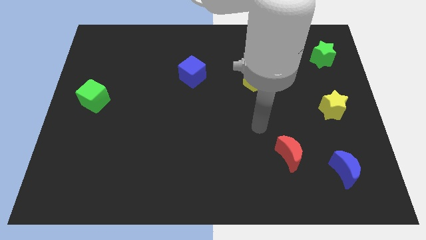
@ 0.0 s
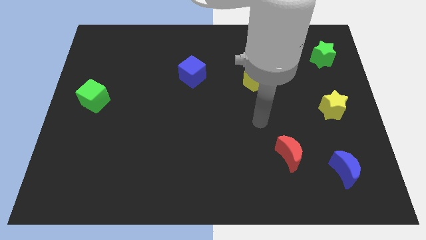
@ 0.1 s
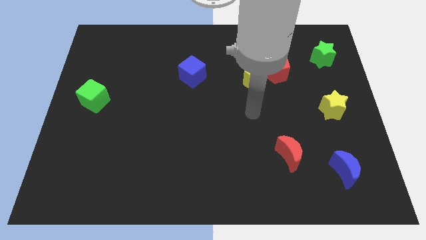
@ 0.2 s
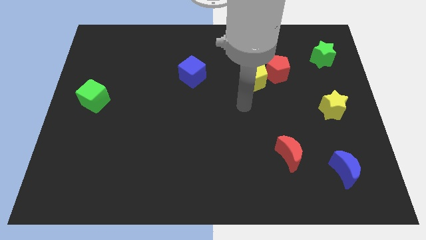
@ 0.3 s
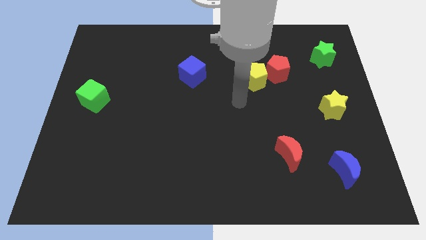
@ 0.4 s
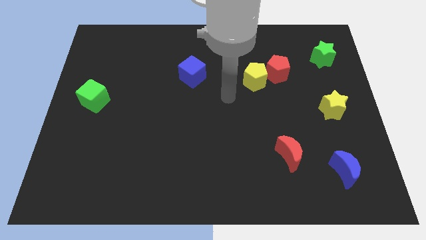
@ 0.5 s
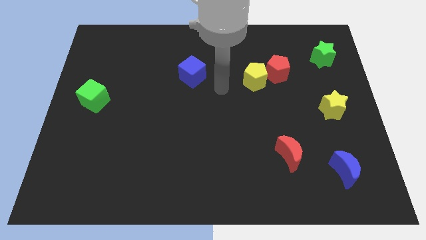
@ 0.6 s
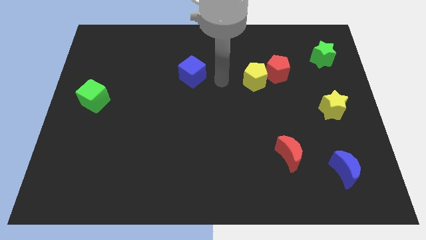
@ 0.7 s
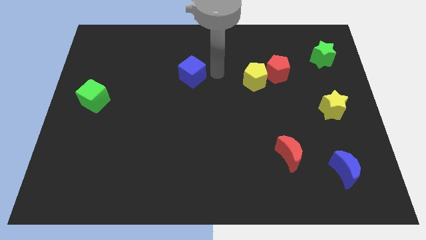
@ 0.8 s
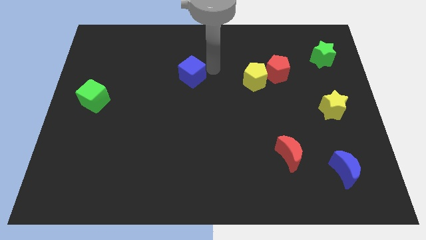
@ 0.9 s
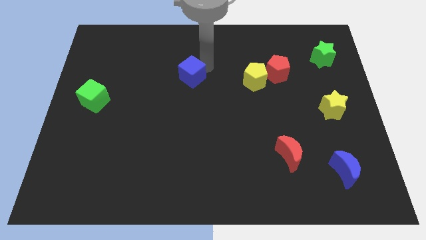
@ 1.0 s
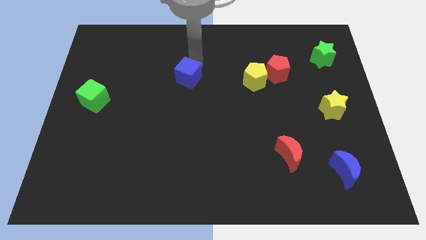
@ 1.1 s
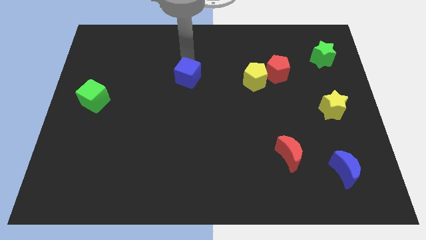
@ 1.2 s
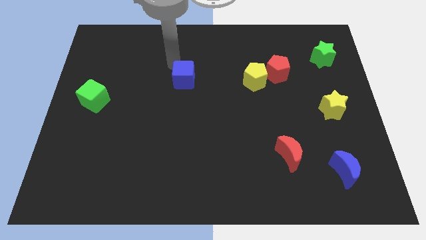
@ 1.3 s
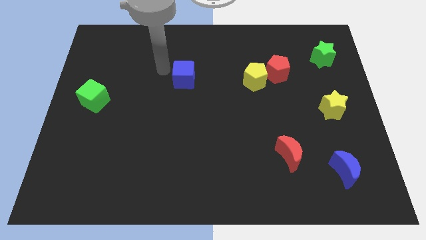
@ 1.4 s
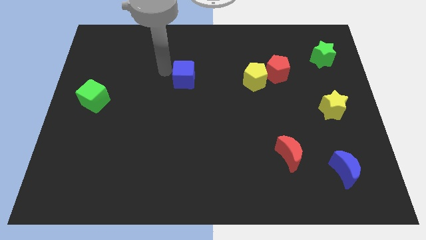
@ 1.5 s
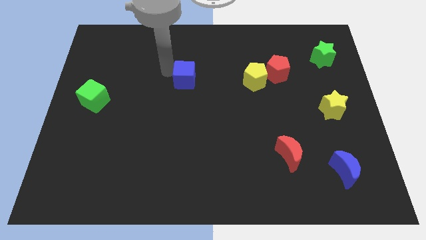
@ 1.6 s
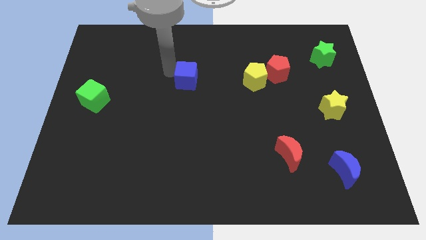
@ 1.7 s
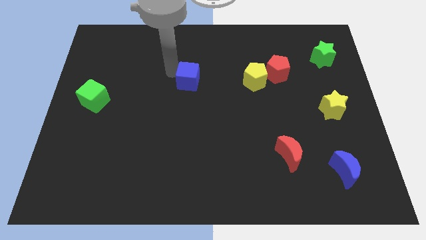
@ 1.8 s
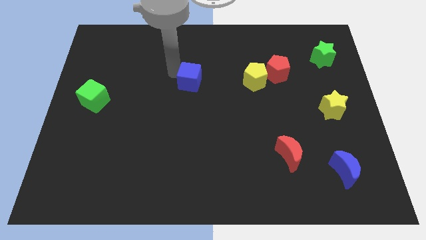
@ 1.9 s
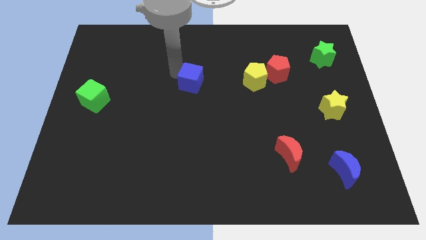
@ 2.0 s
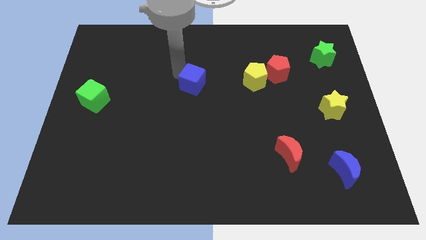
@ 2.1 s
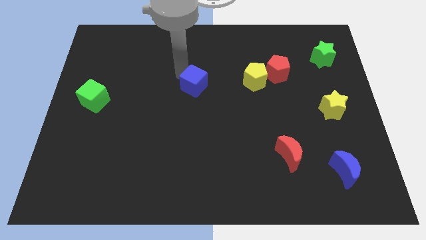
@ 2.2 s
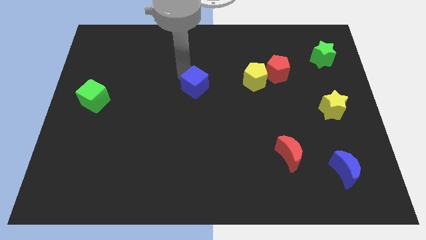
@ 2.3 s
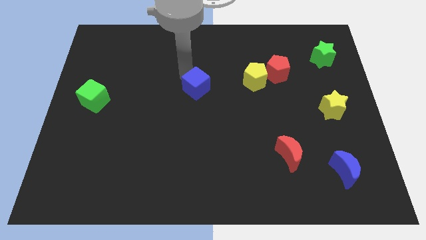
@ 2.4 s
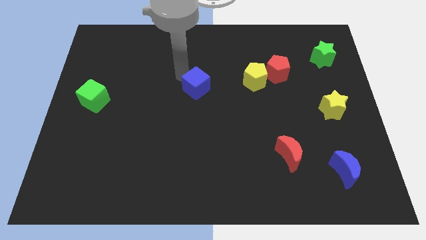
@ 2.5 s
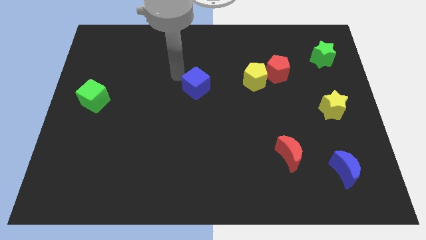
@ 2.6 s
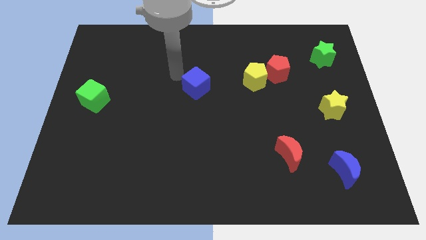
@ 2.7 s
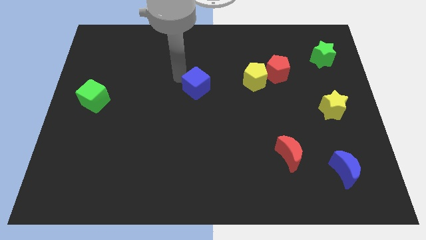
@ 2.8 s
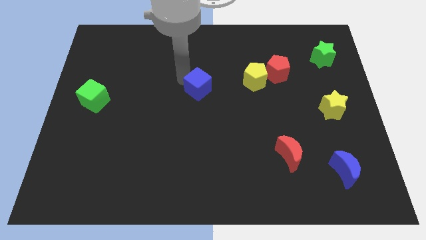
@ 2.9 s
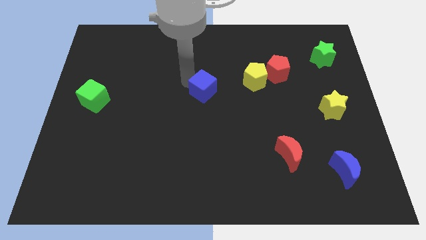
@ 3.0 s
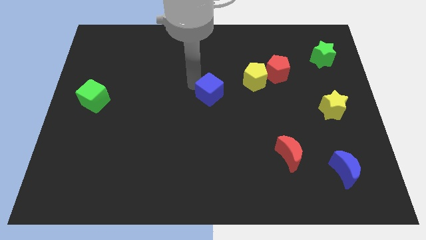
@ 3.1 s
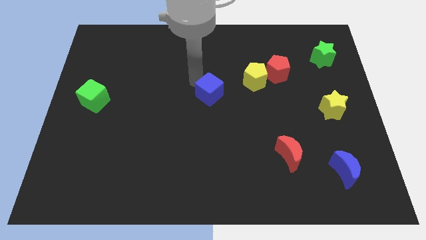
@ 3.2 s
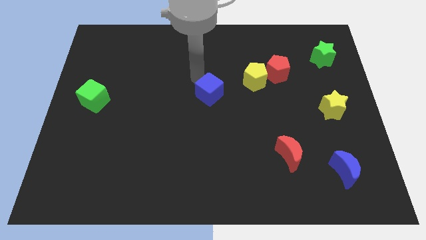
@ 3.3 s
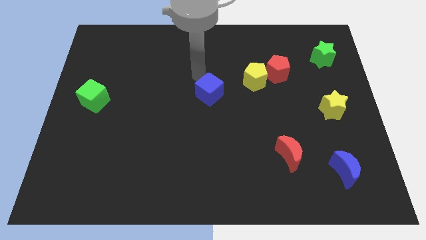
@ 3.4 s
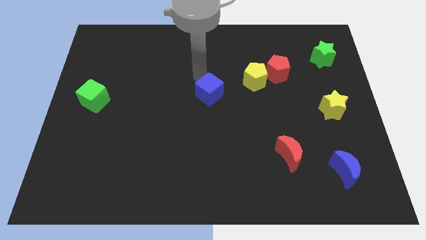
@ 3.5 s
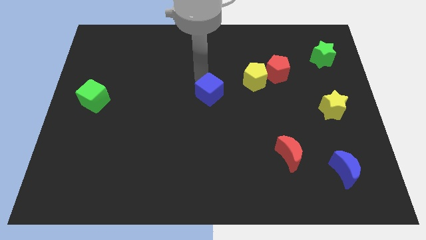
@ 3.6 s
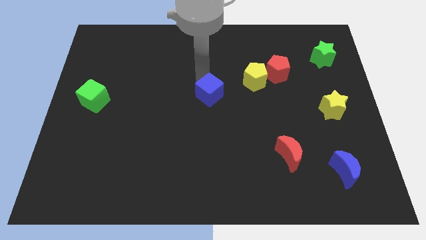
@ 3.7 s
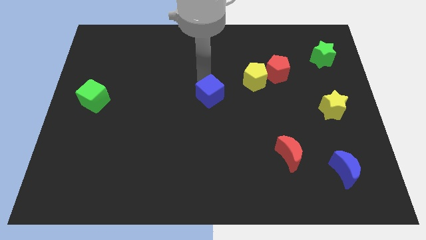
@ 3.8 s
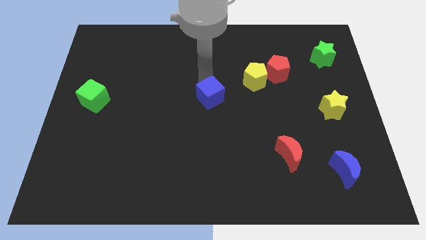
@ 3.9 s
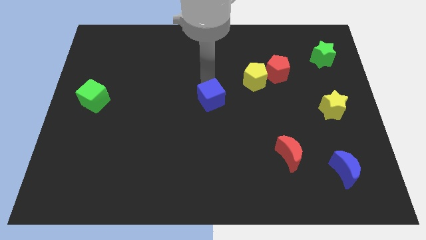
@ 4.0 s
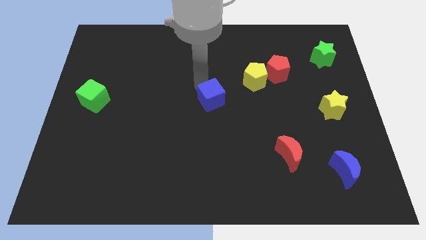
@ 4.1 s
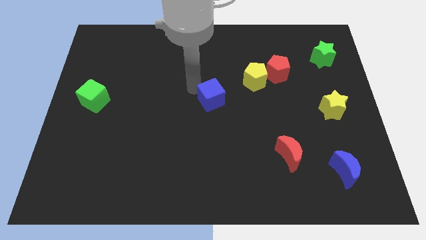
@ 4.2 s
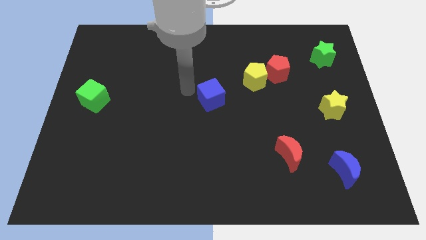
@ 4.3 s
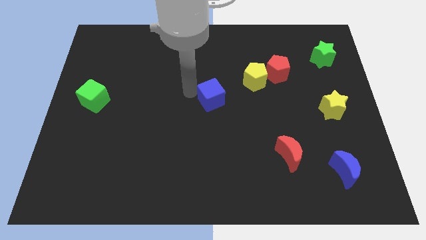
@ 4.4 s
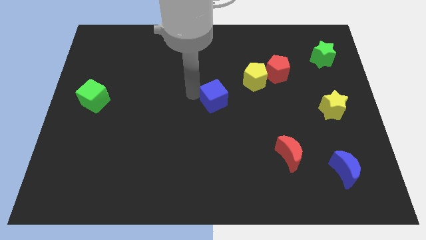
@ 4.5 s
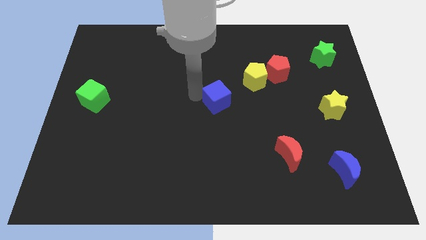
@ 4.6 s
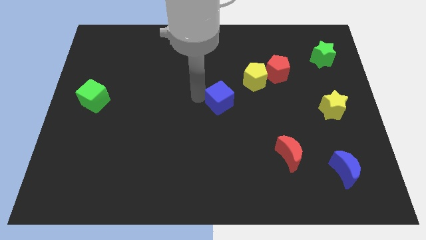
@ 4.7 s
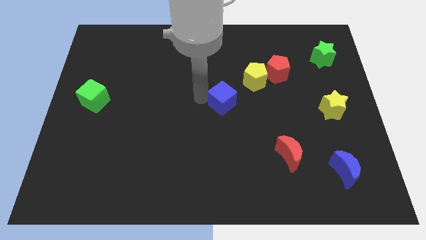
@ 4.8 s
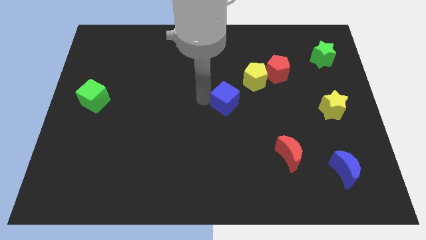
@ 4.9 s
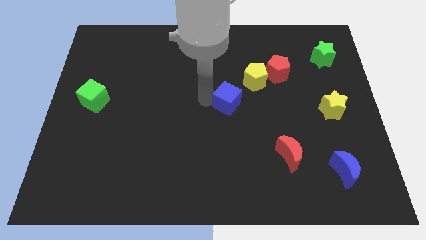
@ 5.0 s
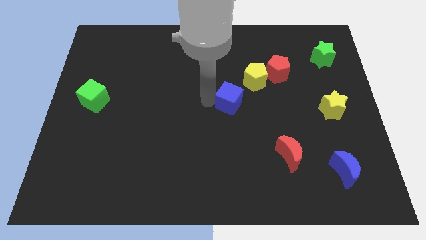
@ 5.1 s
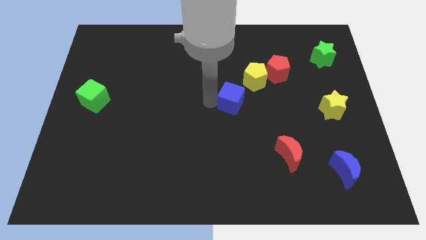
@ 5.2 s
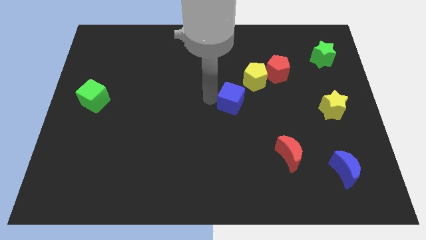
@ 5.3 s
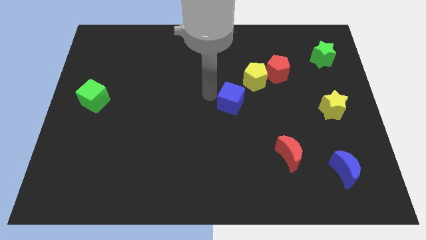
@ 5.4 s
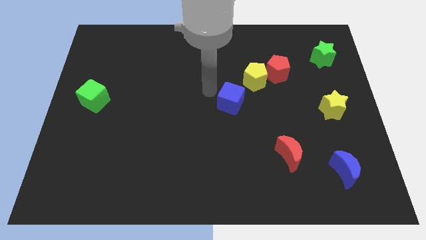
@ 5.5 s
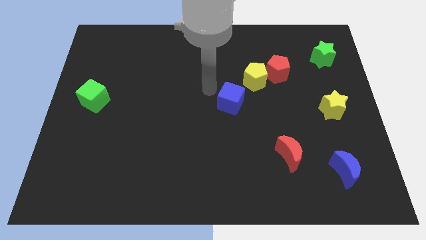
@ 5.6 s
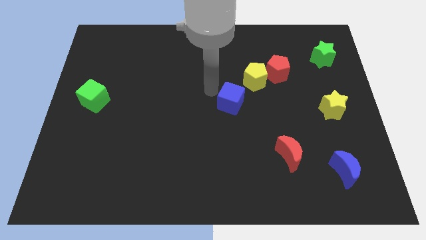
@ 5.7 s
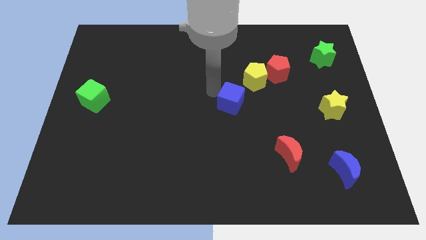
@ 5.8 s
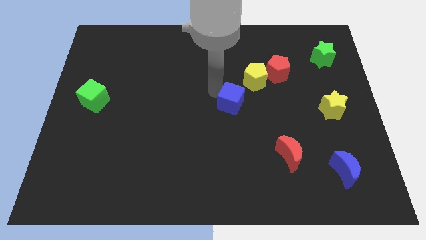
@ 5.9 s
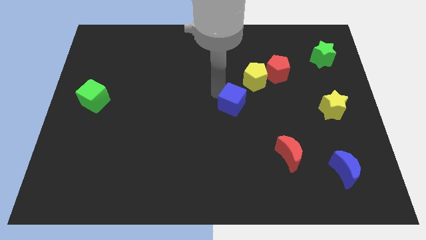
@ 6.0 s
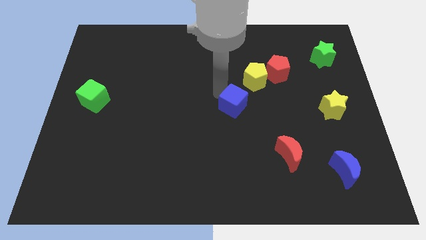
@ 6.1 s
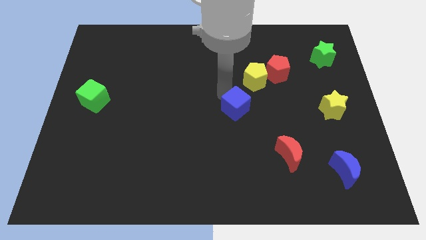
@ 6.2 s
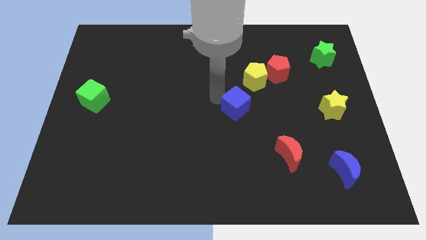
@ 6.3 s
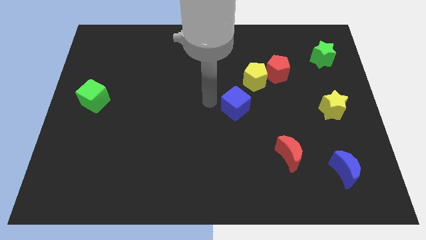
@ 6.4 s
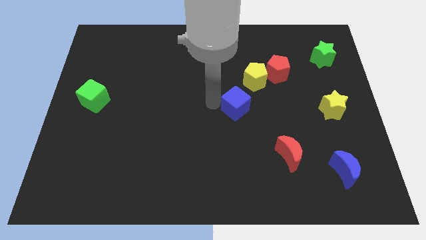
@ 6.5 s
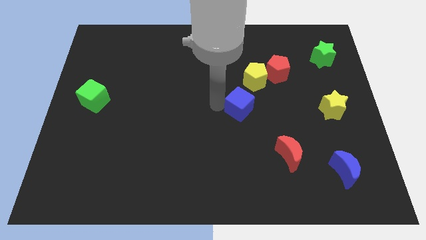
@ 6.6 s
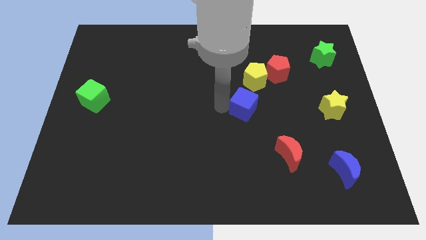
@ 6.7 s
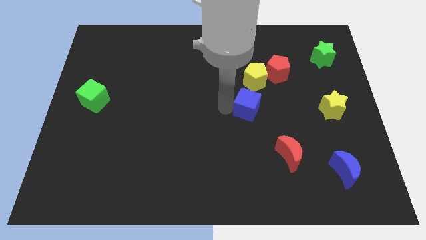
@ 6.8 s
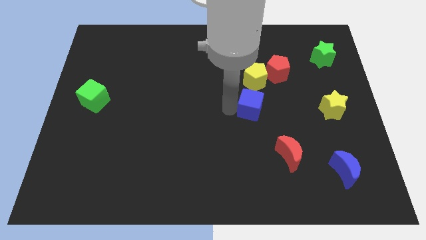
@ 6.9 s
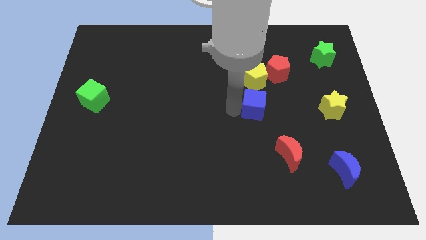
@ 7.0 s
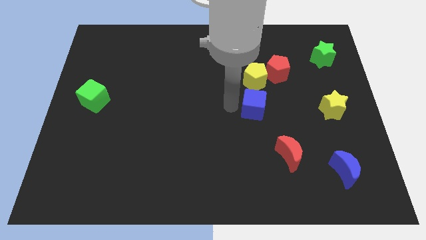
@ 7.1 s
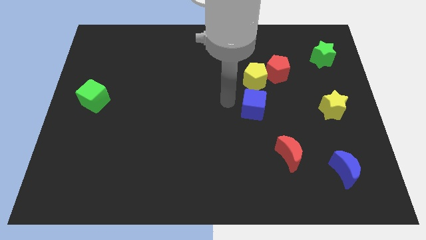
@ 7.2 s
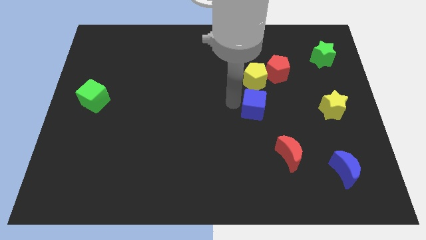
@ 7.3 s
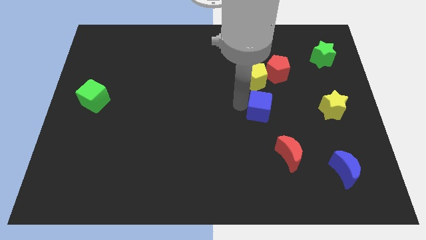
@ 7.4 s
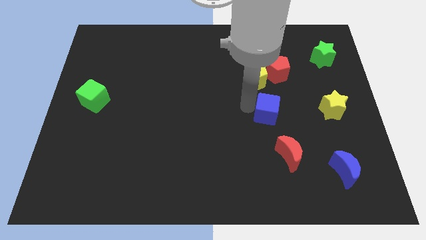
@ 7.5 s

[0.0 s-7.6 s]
slide the blue cube above the red moon
